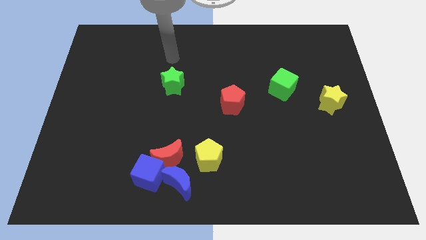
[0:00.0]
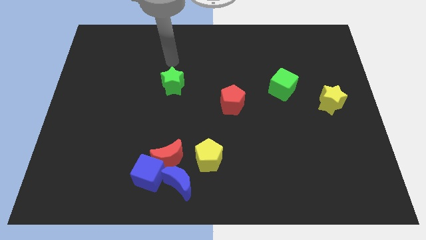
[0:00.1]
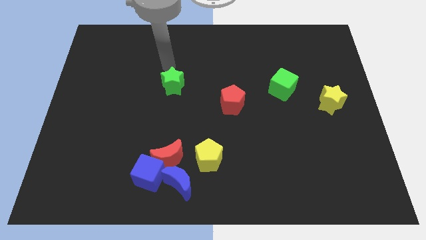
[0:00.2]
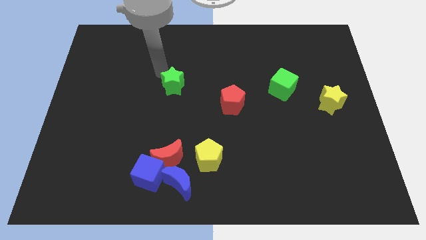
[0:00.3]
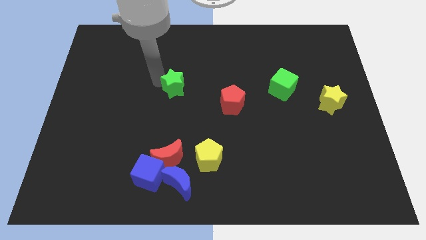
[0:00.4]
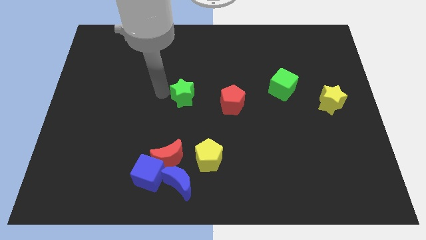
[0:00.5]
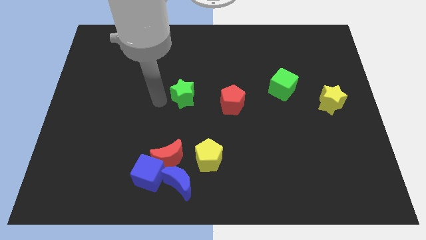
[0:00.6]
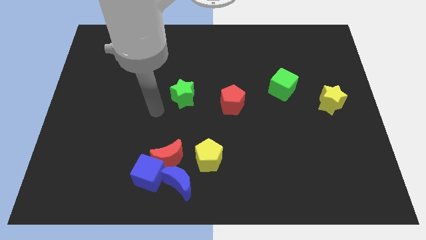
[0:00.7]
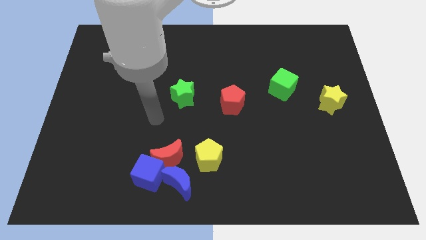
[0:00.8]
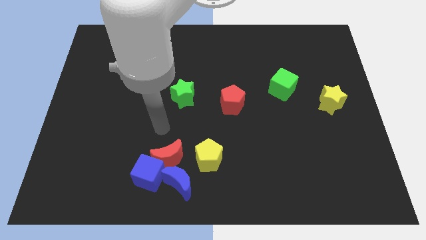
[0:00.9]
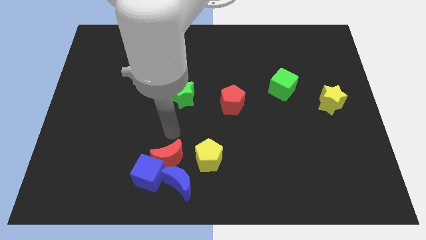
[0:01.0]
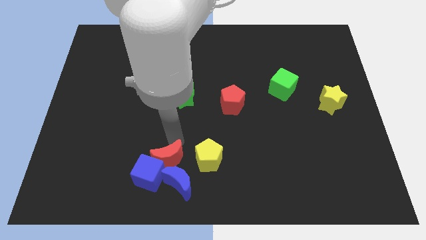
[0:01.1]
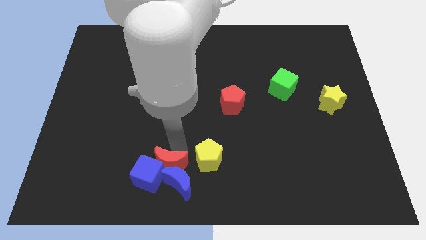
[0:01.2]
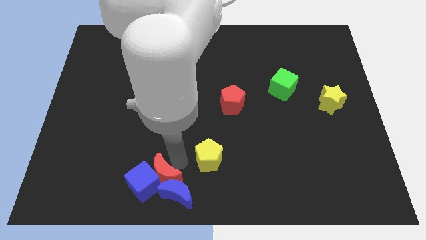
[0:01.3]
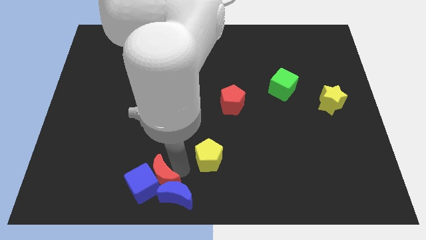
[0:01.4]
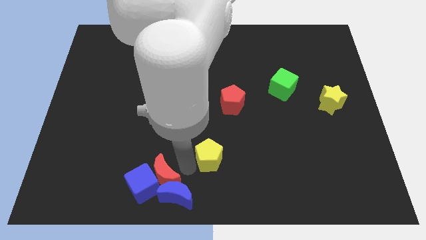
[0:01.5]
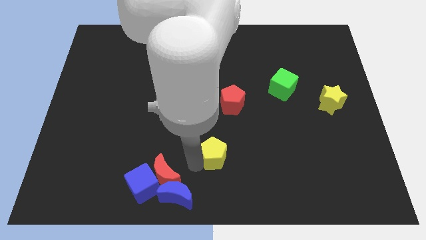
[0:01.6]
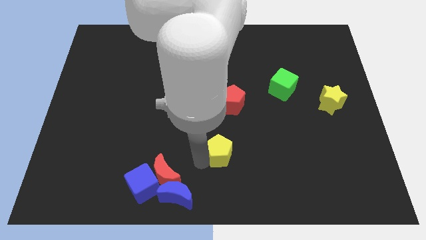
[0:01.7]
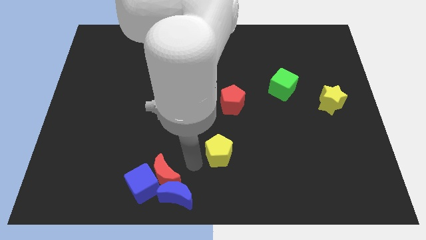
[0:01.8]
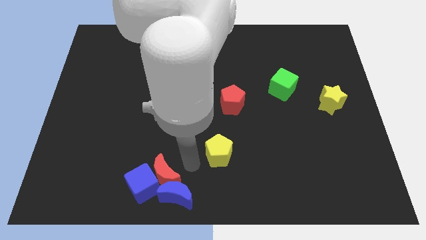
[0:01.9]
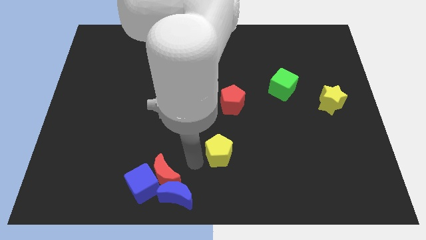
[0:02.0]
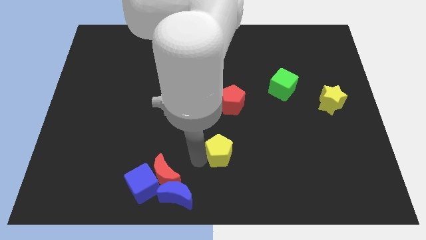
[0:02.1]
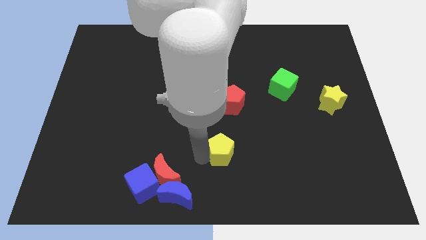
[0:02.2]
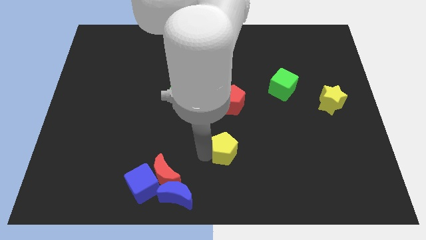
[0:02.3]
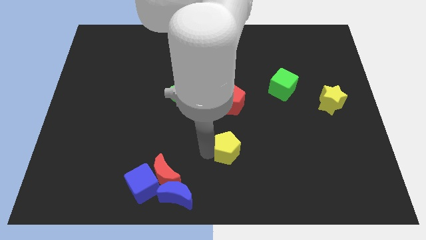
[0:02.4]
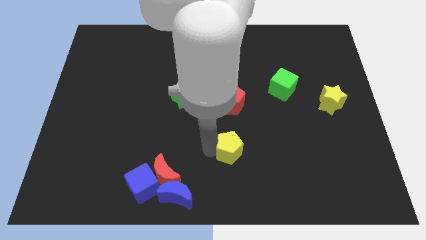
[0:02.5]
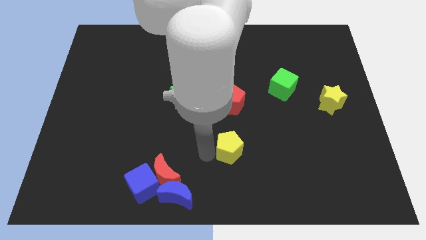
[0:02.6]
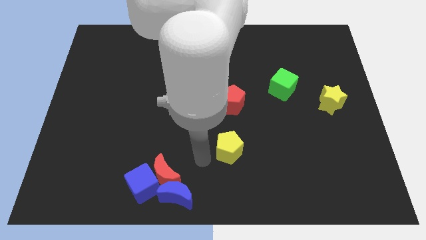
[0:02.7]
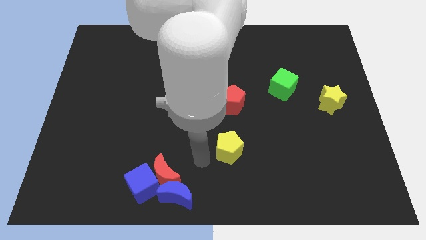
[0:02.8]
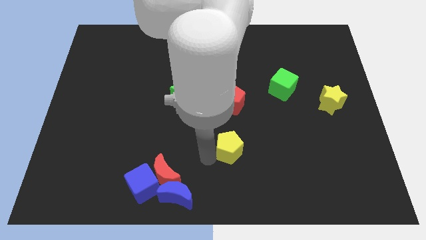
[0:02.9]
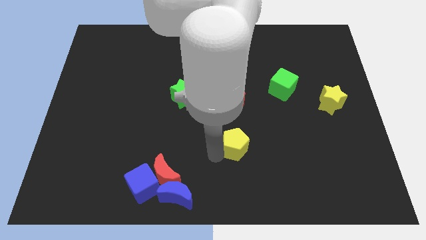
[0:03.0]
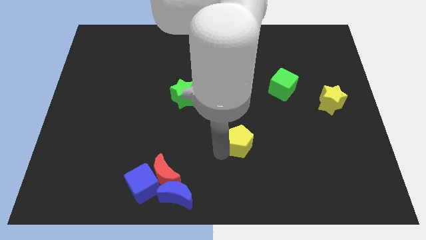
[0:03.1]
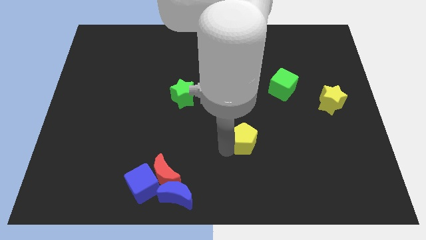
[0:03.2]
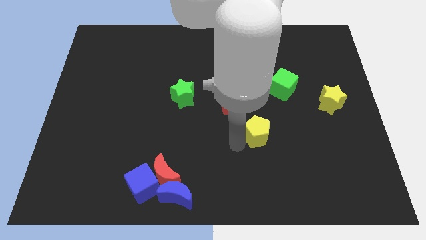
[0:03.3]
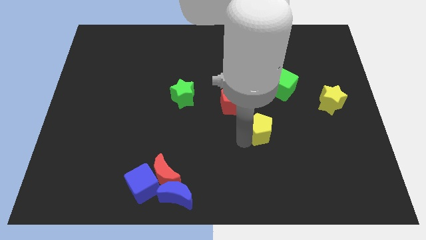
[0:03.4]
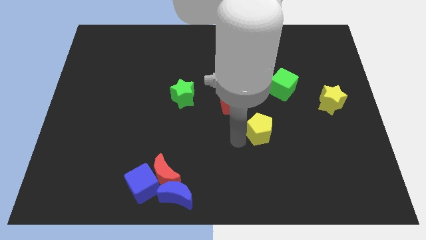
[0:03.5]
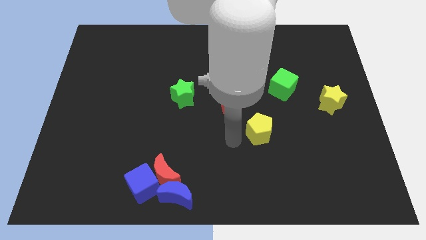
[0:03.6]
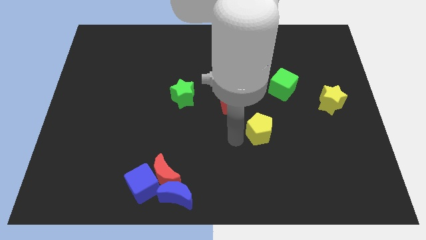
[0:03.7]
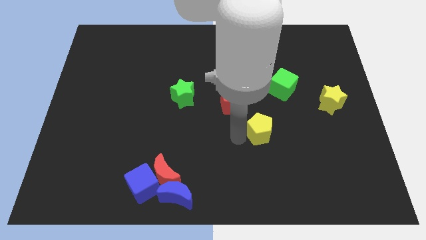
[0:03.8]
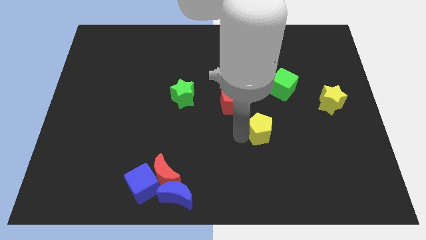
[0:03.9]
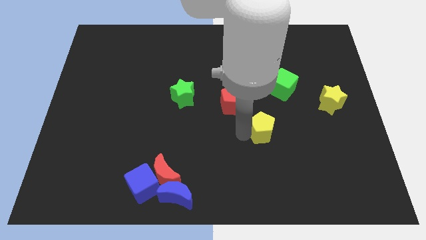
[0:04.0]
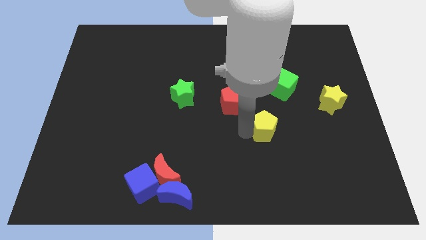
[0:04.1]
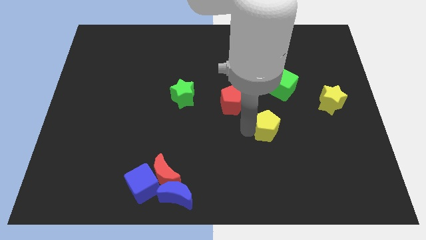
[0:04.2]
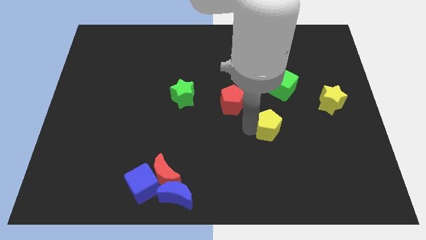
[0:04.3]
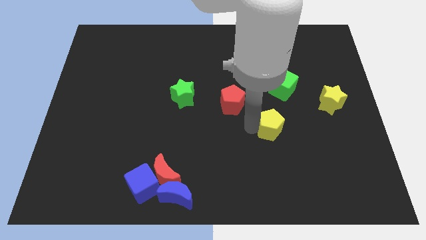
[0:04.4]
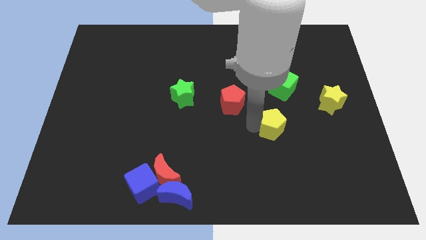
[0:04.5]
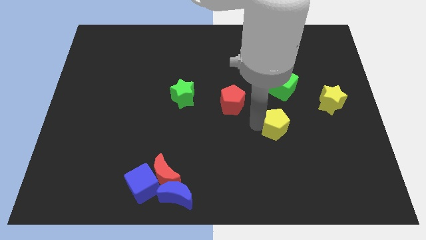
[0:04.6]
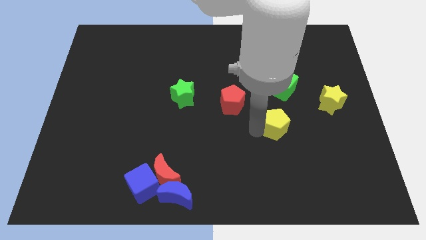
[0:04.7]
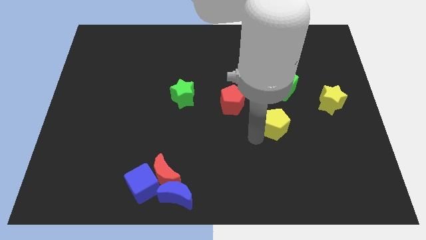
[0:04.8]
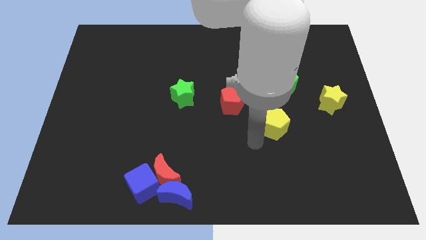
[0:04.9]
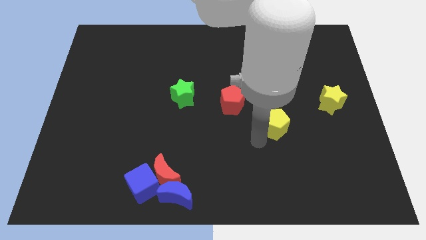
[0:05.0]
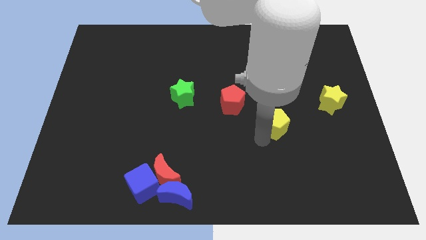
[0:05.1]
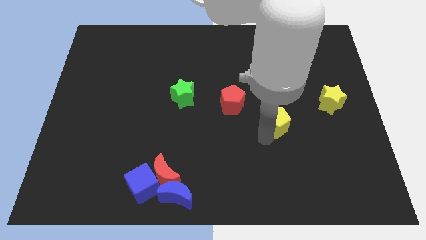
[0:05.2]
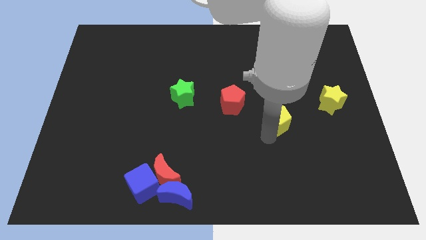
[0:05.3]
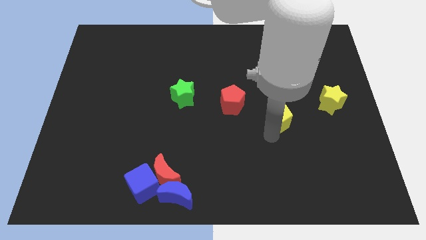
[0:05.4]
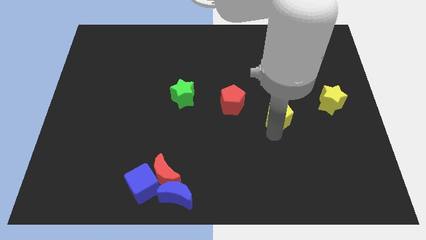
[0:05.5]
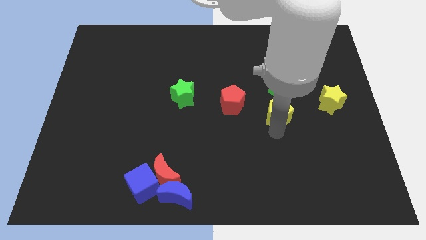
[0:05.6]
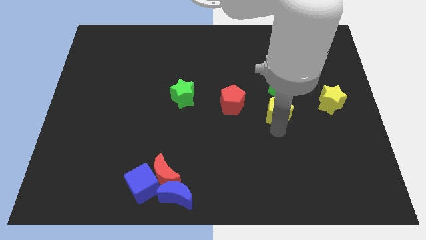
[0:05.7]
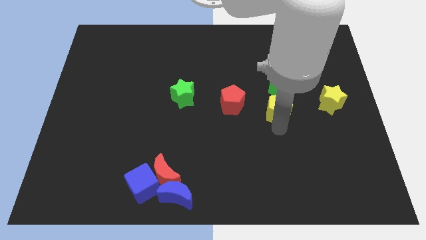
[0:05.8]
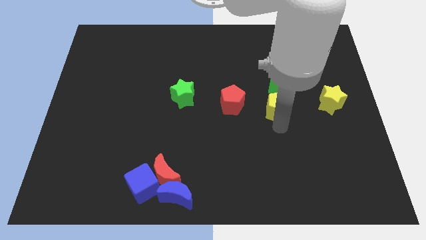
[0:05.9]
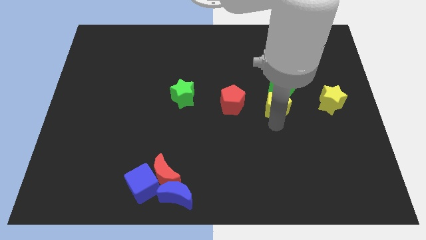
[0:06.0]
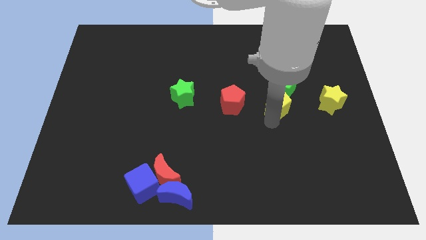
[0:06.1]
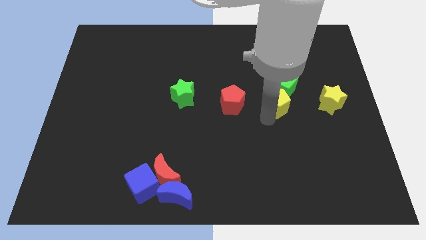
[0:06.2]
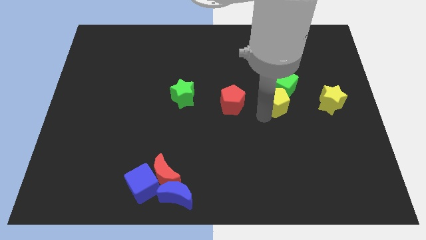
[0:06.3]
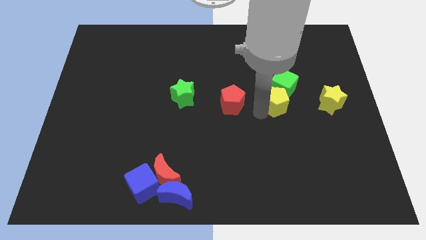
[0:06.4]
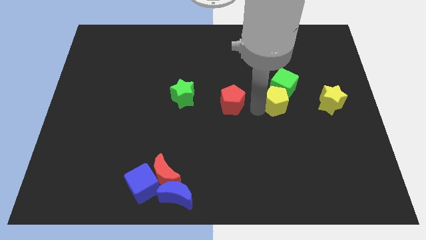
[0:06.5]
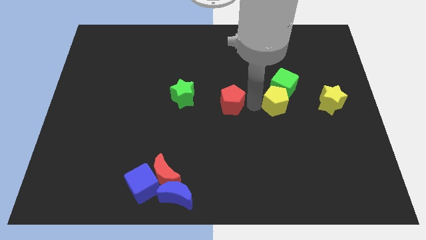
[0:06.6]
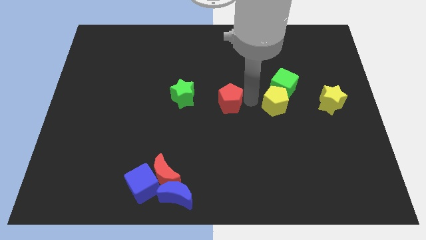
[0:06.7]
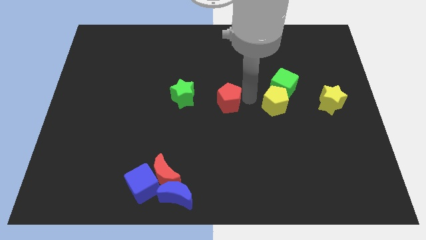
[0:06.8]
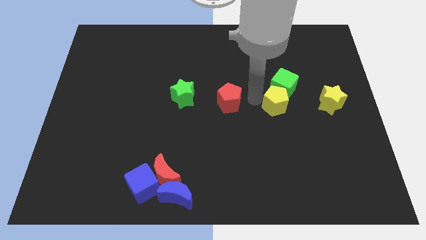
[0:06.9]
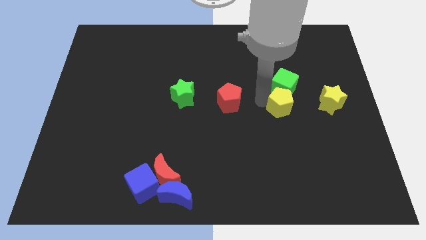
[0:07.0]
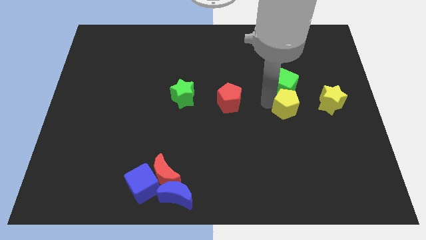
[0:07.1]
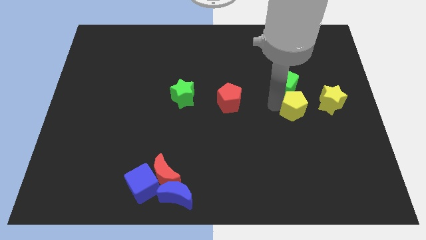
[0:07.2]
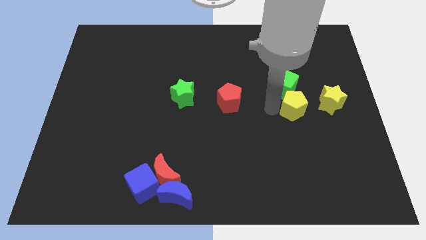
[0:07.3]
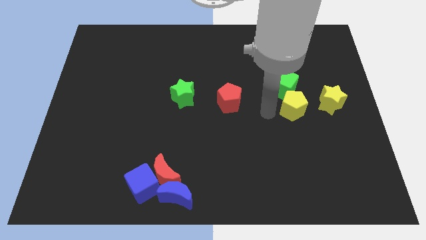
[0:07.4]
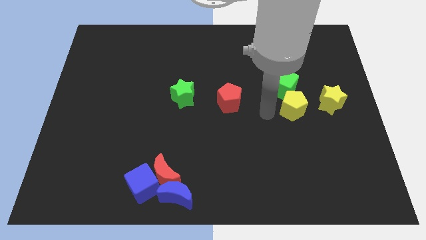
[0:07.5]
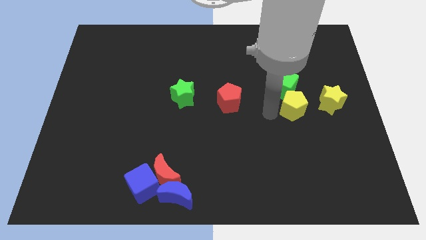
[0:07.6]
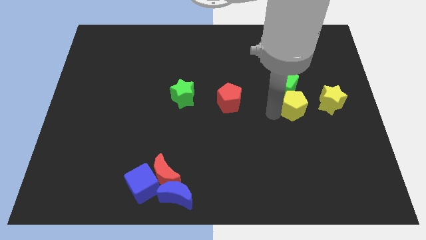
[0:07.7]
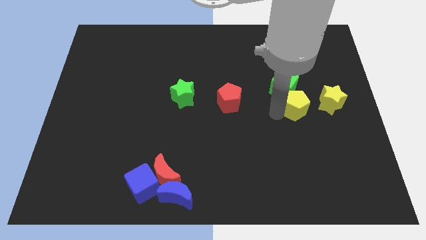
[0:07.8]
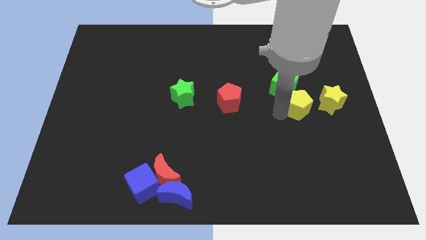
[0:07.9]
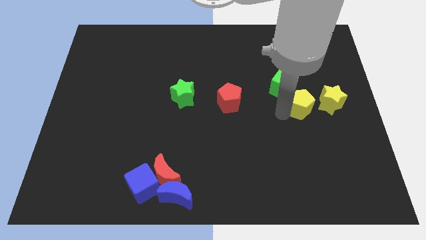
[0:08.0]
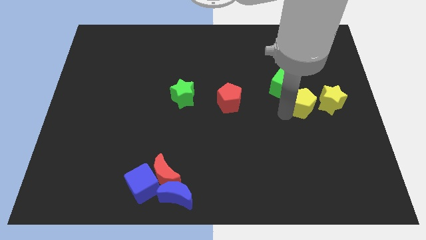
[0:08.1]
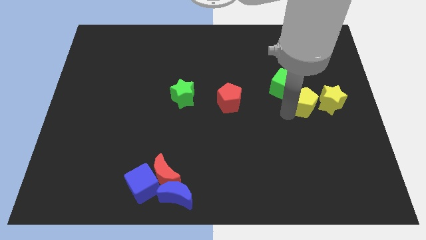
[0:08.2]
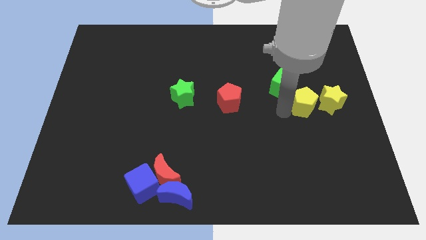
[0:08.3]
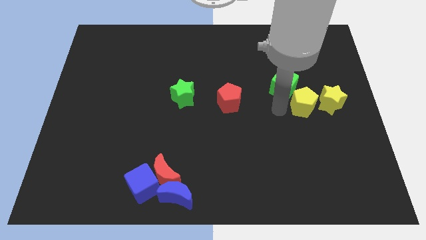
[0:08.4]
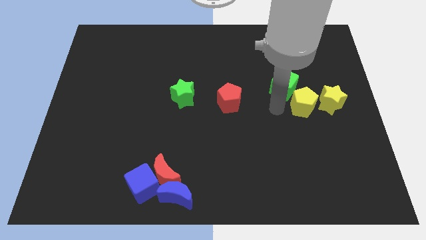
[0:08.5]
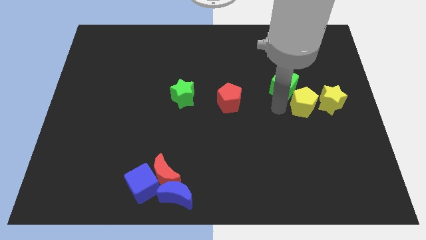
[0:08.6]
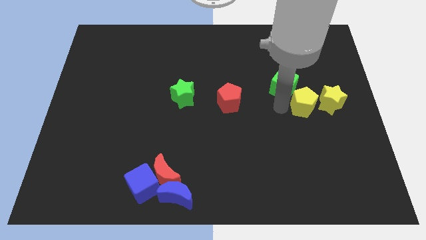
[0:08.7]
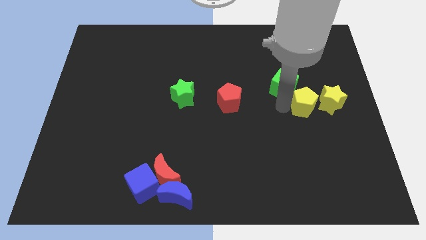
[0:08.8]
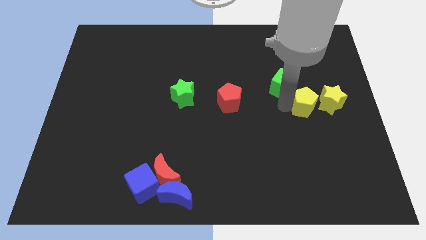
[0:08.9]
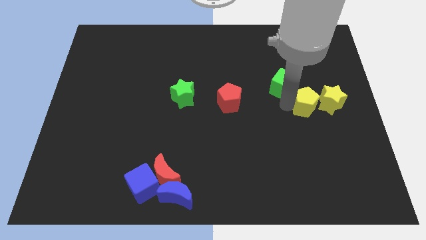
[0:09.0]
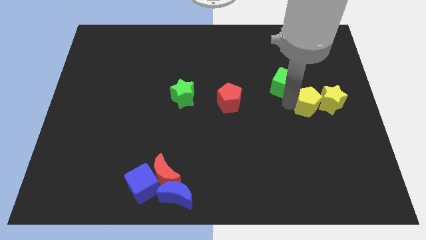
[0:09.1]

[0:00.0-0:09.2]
push the yellow pentagon close to the yellow star
